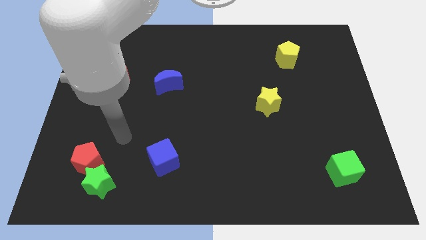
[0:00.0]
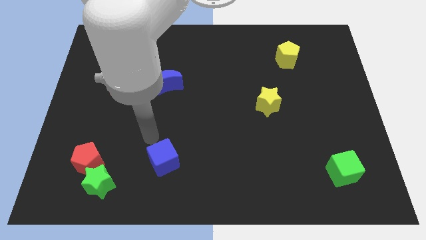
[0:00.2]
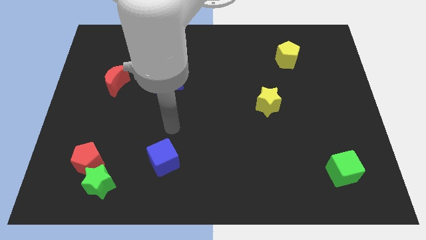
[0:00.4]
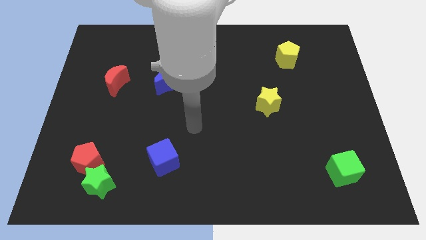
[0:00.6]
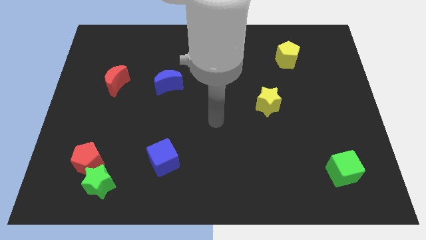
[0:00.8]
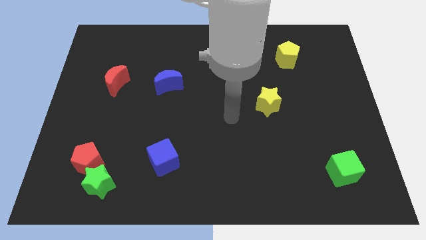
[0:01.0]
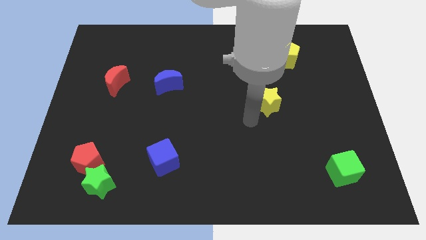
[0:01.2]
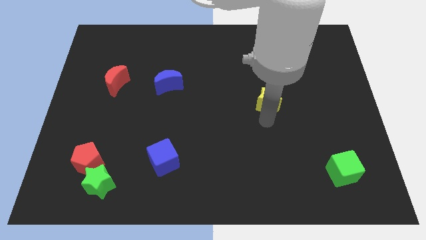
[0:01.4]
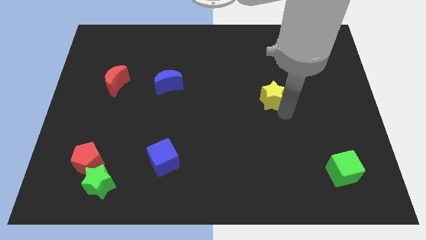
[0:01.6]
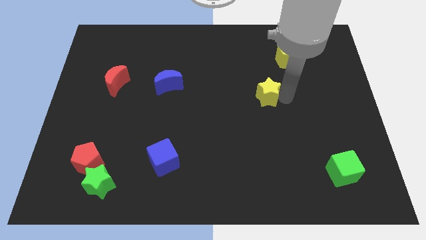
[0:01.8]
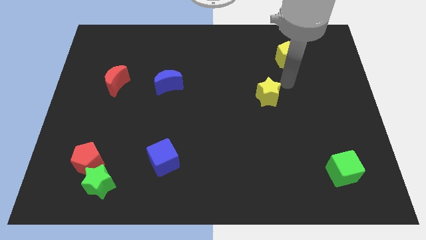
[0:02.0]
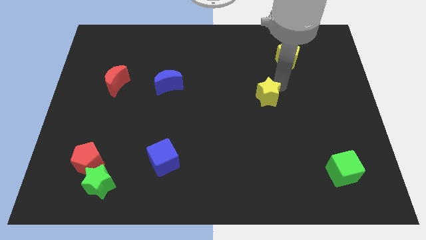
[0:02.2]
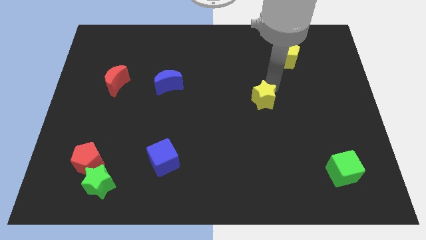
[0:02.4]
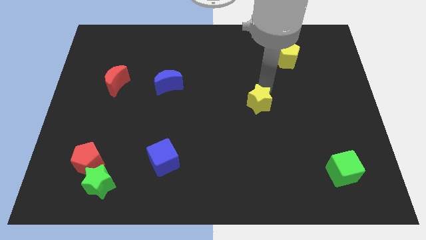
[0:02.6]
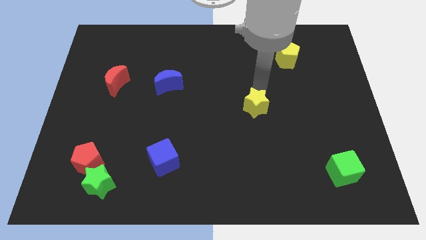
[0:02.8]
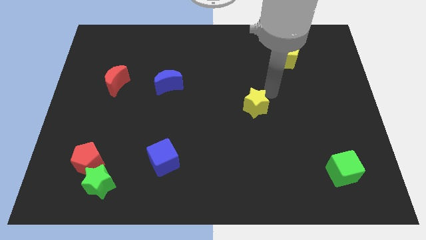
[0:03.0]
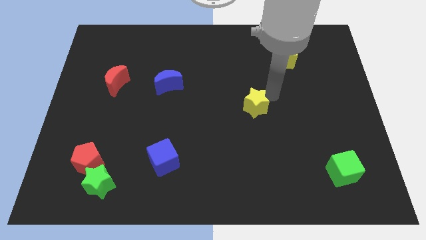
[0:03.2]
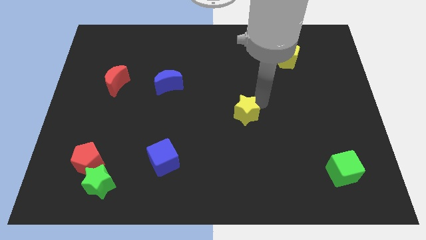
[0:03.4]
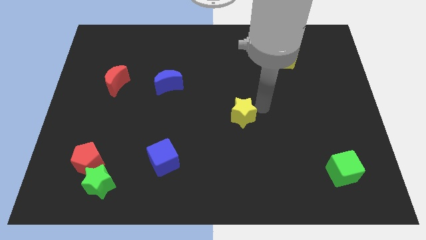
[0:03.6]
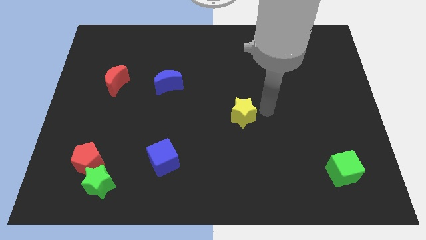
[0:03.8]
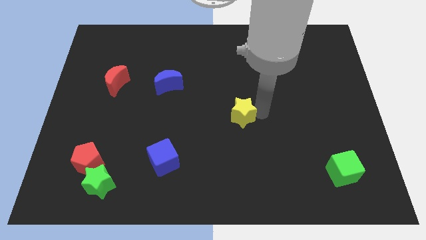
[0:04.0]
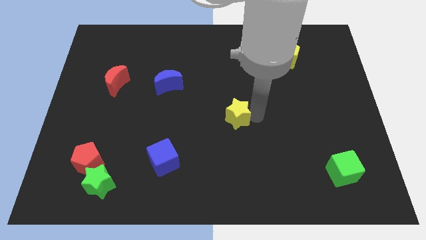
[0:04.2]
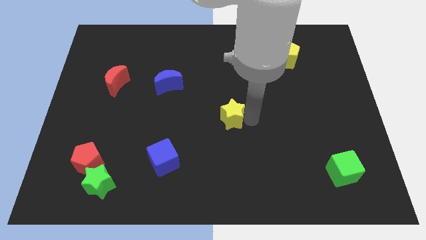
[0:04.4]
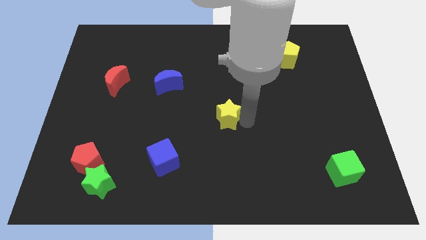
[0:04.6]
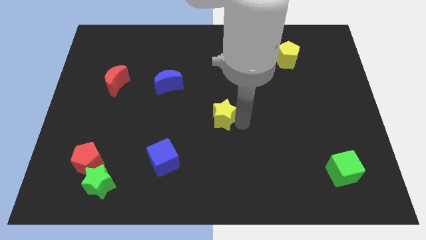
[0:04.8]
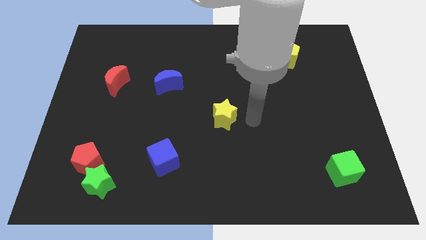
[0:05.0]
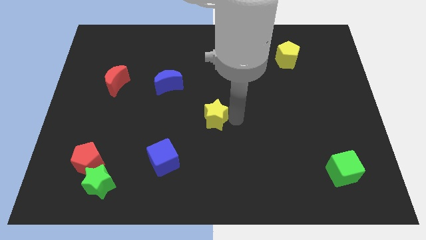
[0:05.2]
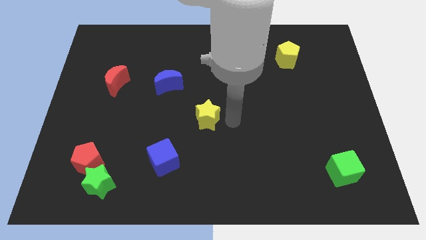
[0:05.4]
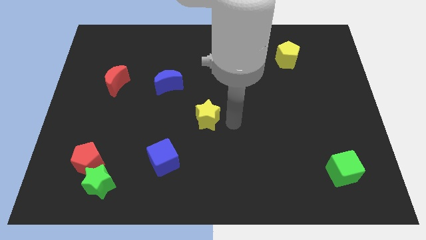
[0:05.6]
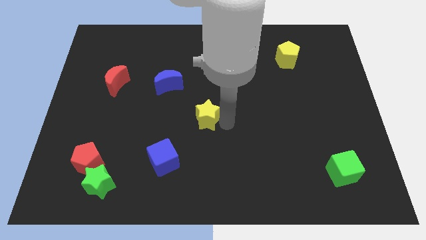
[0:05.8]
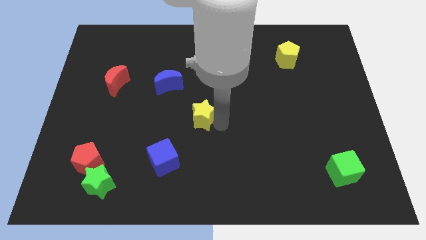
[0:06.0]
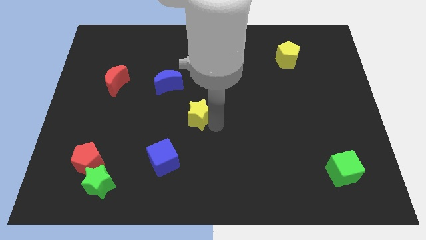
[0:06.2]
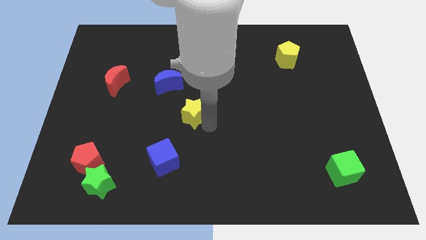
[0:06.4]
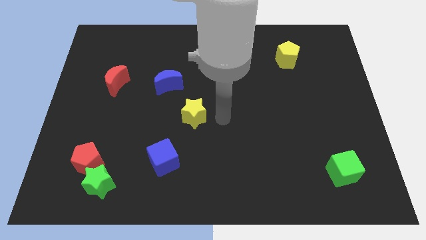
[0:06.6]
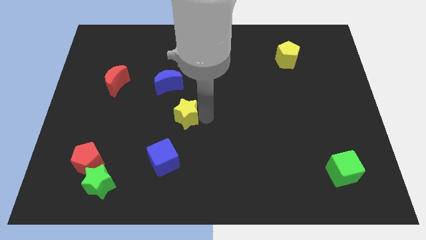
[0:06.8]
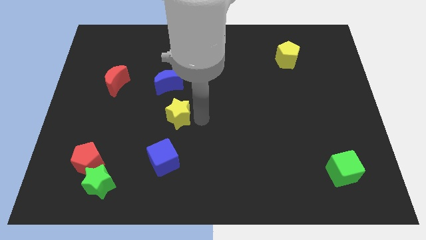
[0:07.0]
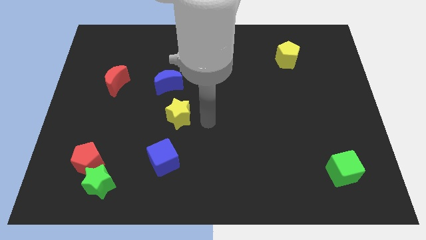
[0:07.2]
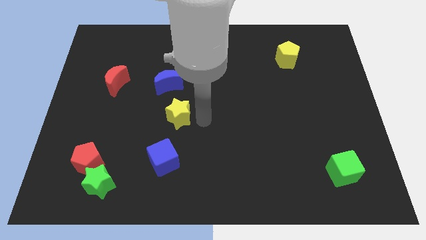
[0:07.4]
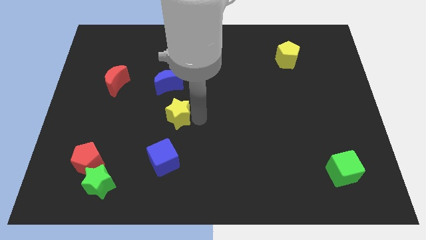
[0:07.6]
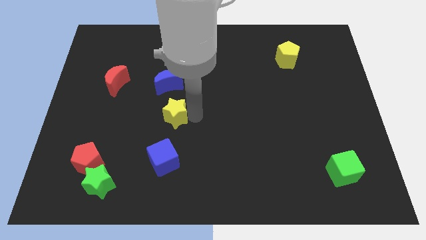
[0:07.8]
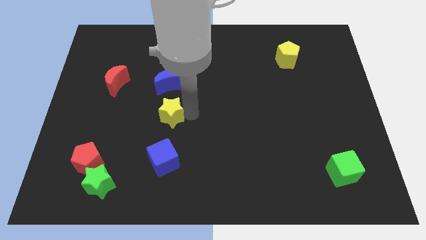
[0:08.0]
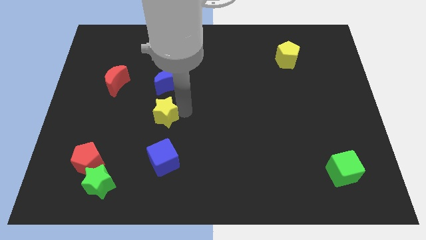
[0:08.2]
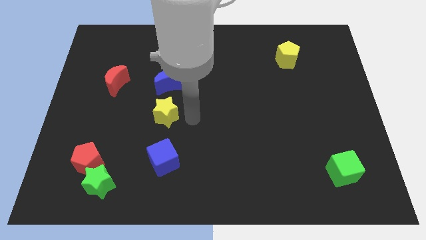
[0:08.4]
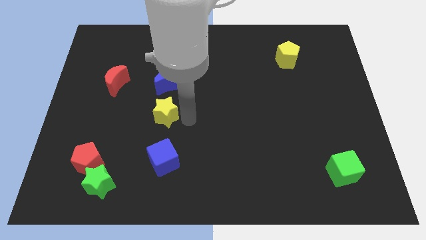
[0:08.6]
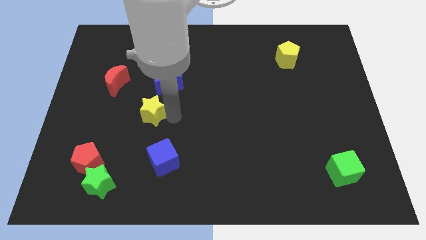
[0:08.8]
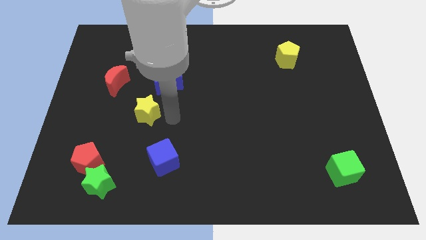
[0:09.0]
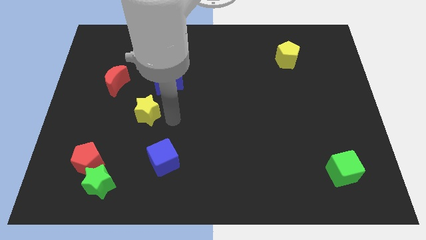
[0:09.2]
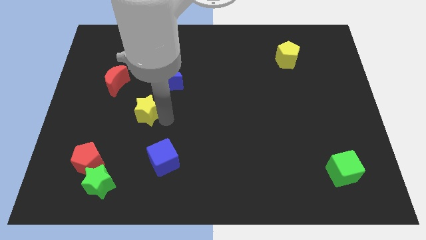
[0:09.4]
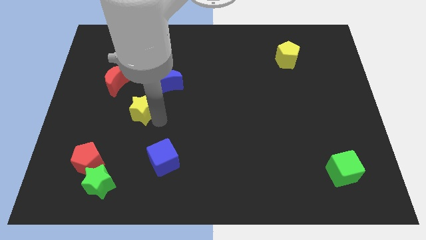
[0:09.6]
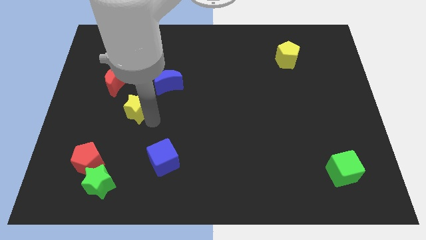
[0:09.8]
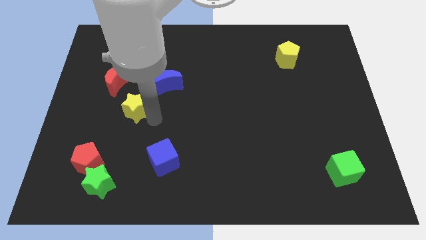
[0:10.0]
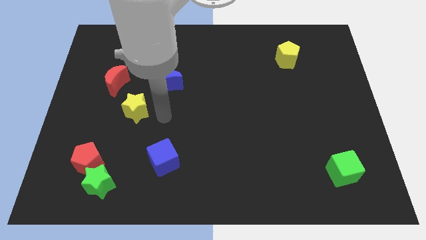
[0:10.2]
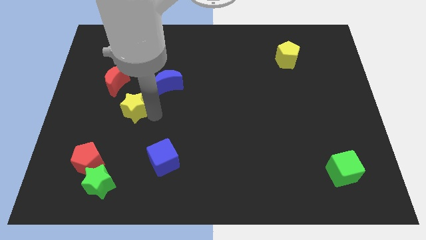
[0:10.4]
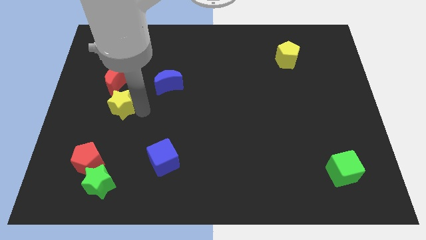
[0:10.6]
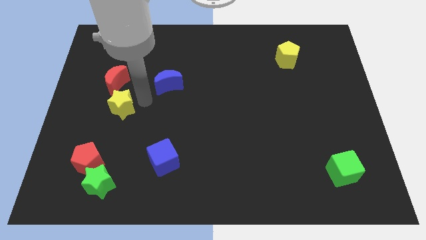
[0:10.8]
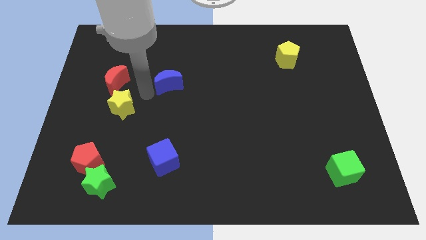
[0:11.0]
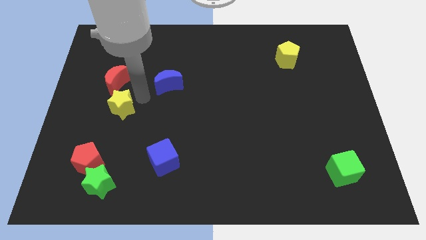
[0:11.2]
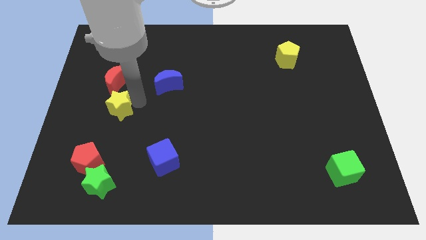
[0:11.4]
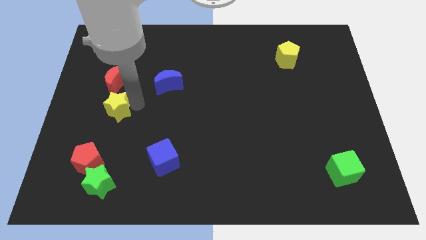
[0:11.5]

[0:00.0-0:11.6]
slide the yellow star to the top side of the red pentagon

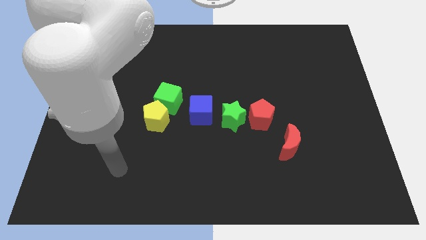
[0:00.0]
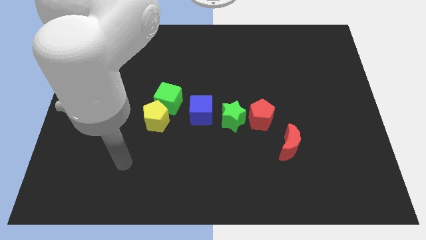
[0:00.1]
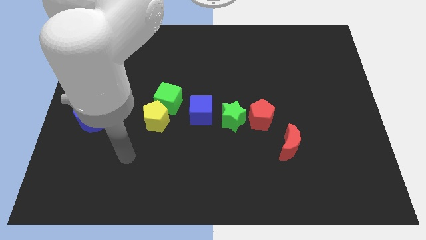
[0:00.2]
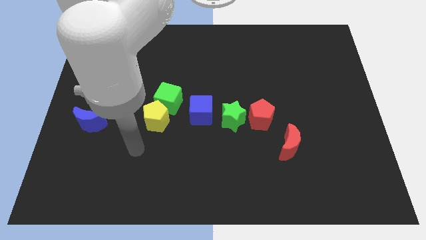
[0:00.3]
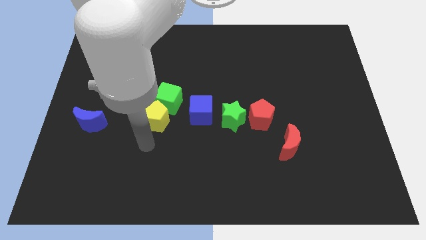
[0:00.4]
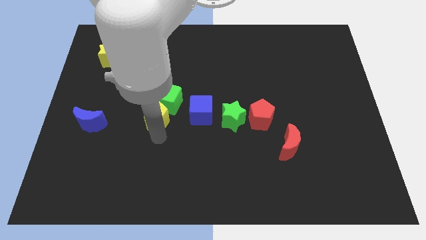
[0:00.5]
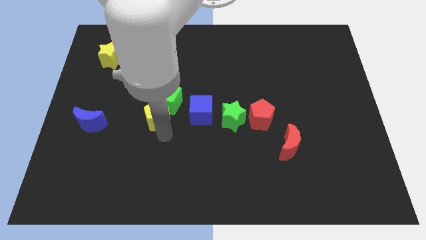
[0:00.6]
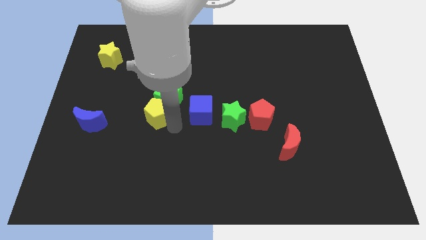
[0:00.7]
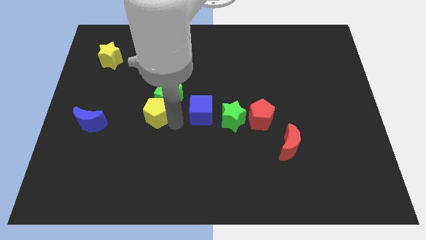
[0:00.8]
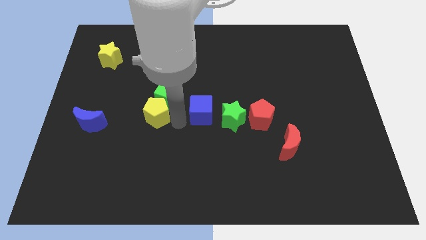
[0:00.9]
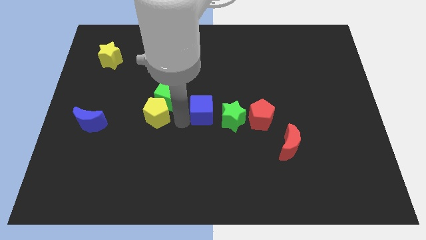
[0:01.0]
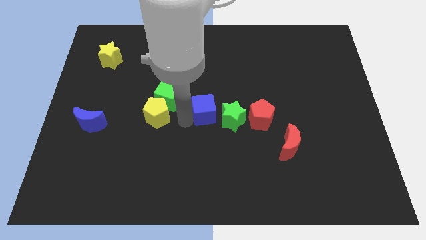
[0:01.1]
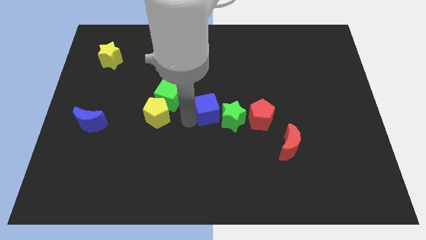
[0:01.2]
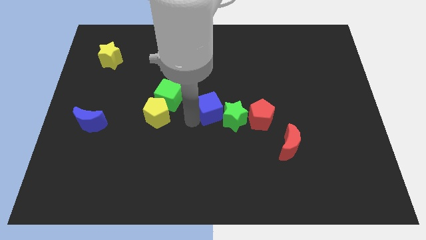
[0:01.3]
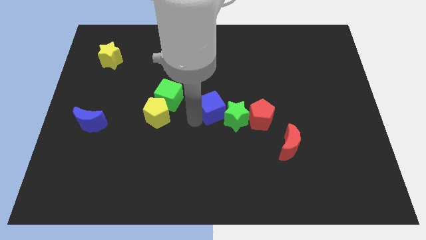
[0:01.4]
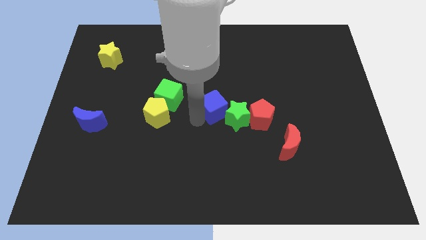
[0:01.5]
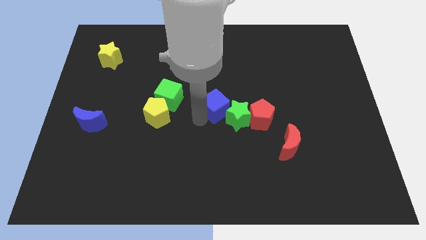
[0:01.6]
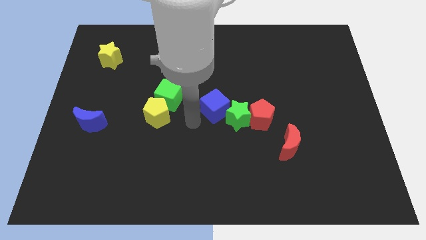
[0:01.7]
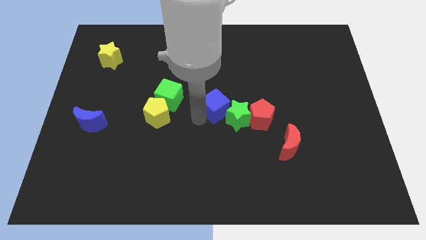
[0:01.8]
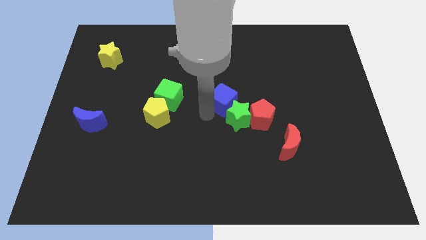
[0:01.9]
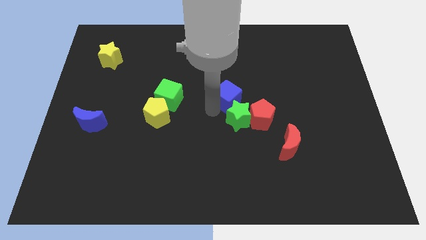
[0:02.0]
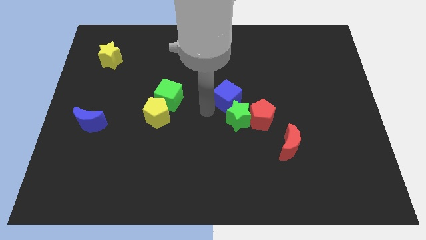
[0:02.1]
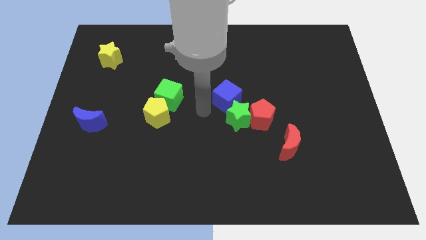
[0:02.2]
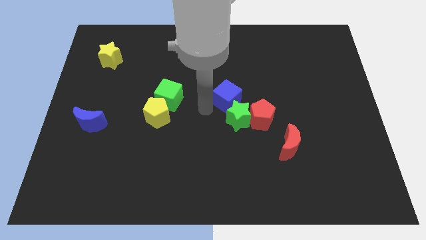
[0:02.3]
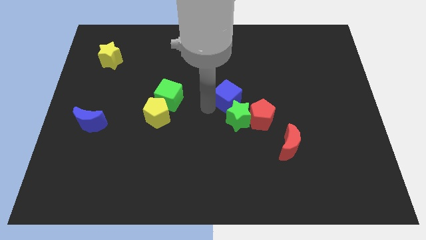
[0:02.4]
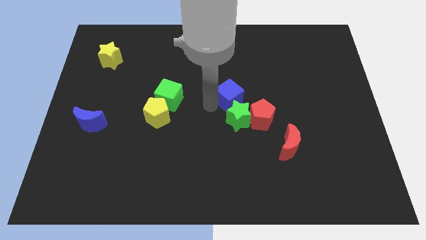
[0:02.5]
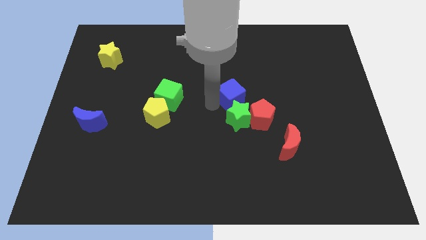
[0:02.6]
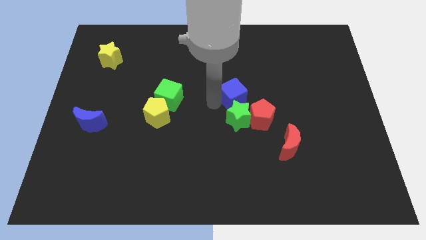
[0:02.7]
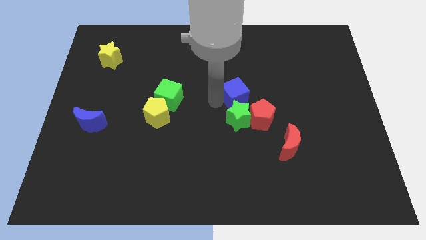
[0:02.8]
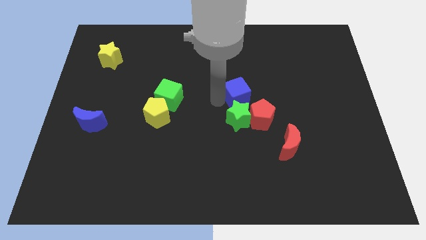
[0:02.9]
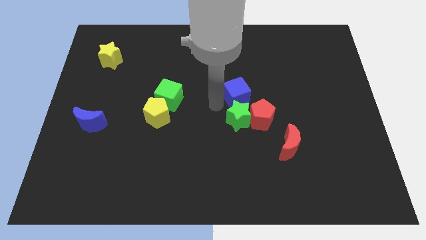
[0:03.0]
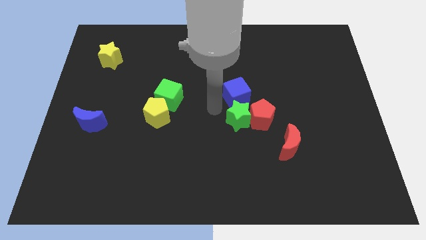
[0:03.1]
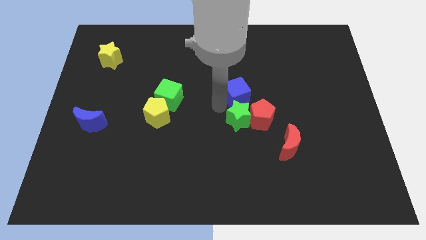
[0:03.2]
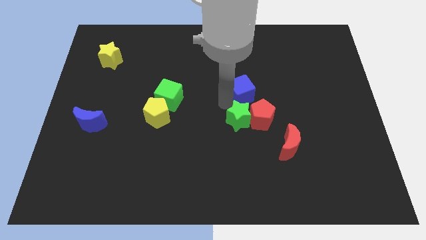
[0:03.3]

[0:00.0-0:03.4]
push the blue cube to the top side of the red pentagon
